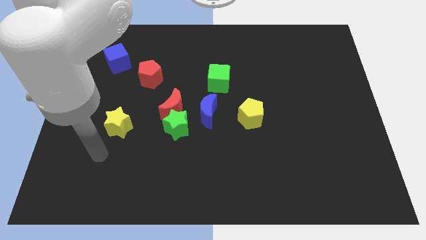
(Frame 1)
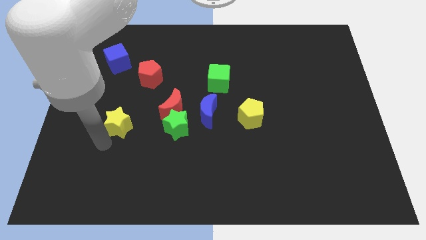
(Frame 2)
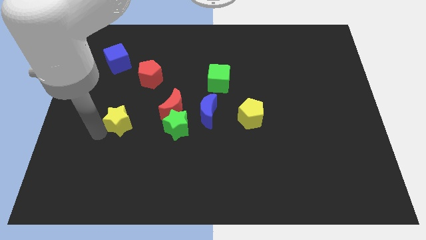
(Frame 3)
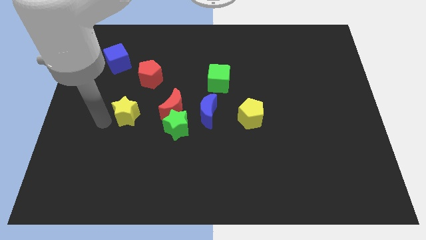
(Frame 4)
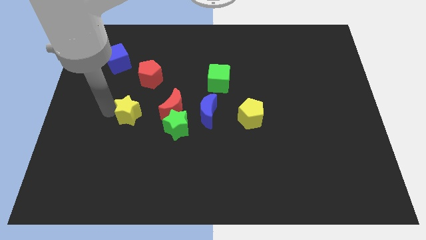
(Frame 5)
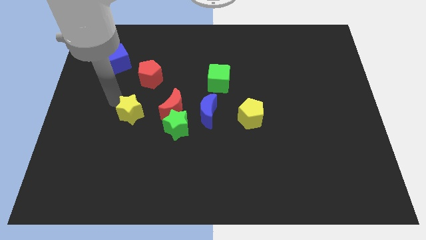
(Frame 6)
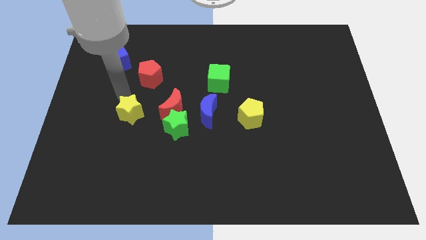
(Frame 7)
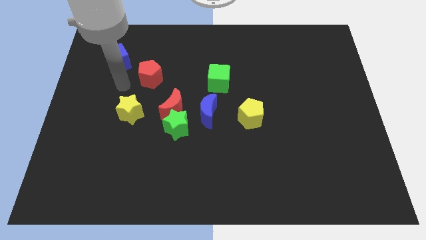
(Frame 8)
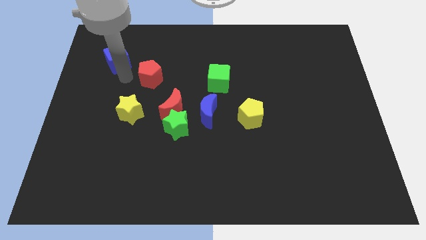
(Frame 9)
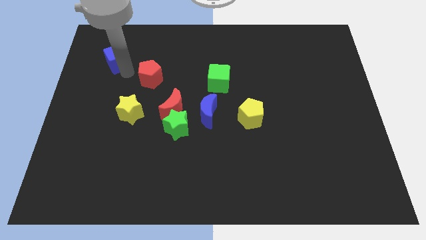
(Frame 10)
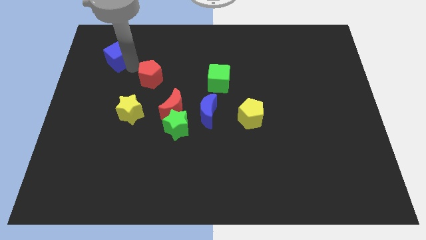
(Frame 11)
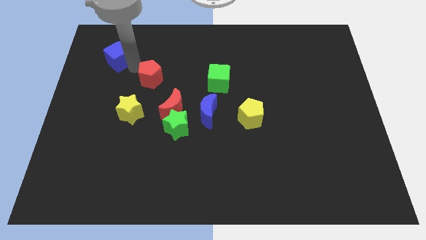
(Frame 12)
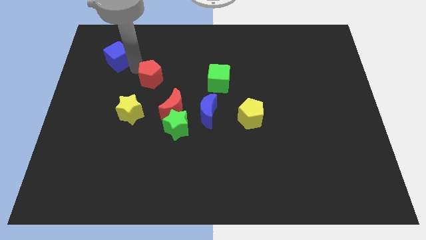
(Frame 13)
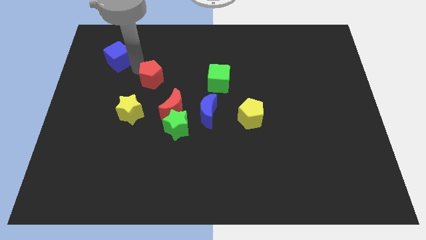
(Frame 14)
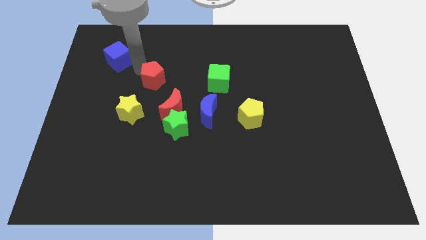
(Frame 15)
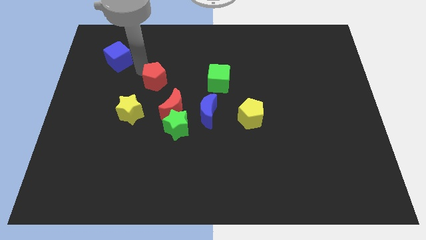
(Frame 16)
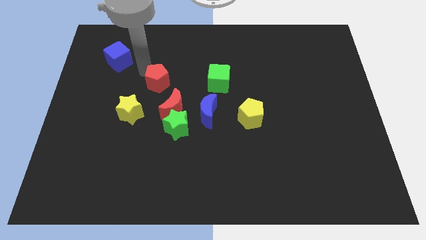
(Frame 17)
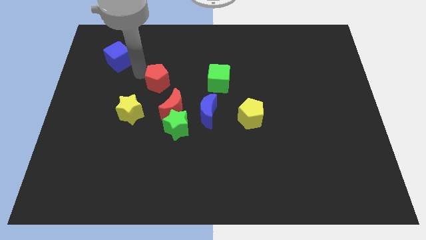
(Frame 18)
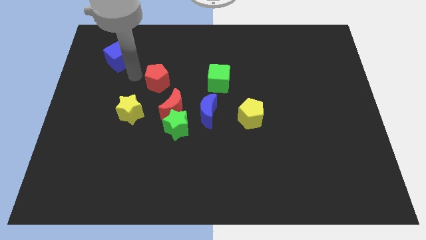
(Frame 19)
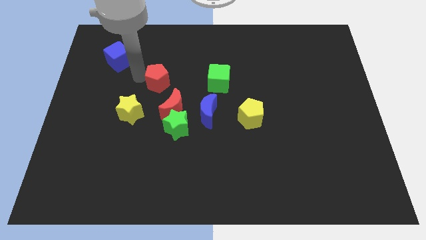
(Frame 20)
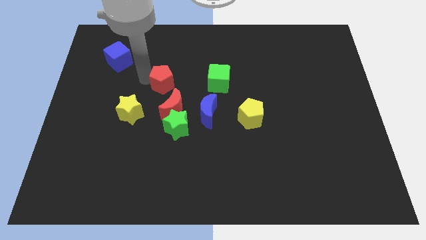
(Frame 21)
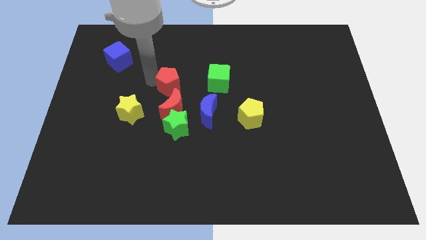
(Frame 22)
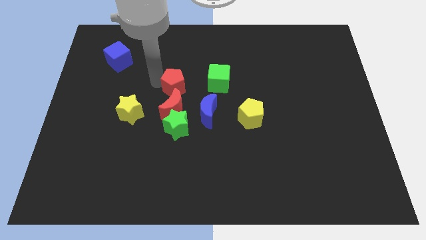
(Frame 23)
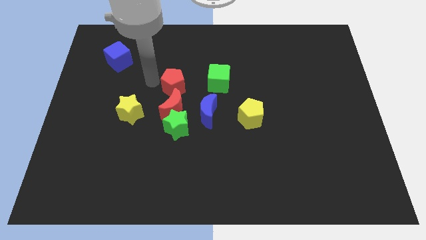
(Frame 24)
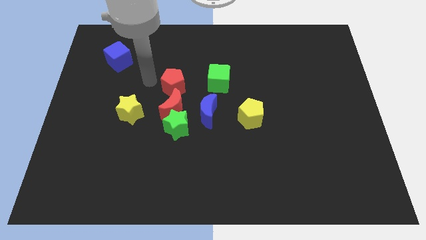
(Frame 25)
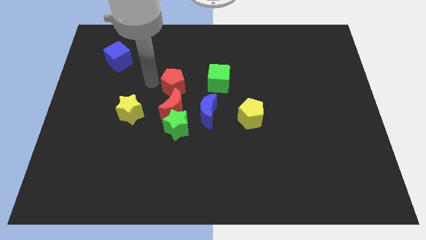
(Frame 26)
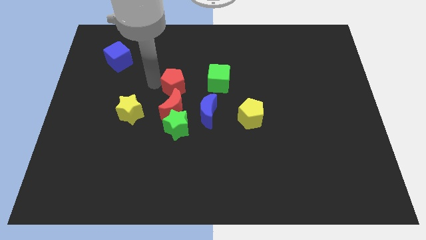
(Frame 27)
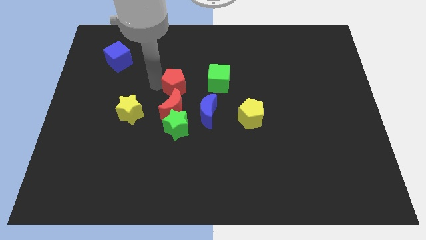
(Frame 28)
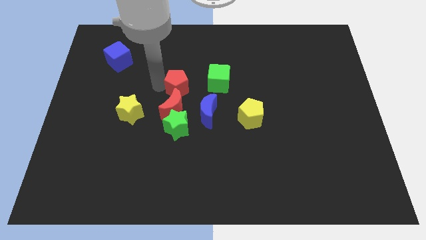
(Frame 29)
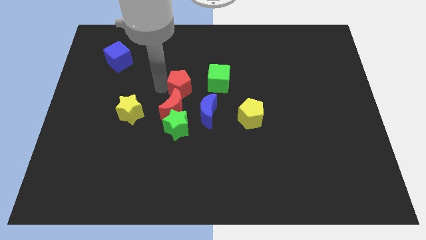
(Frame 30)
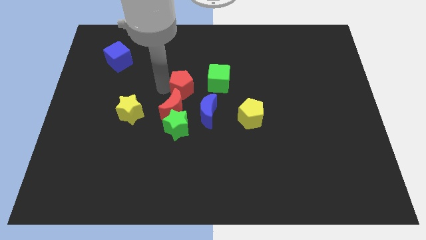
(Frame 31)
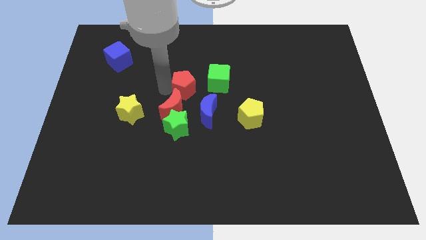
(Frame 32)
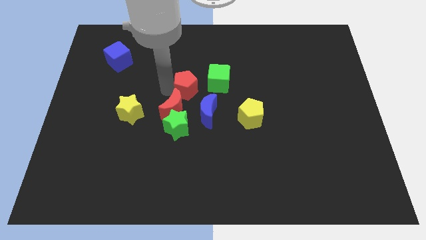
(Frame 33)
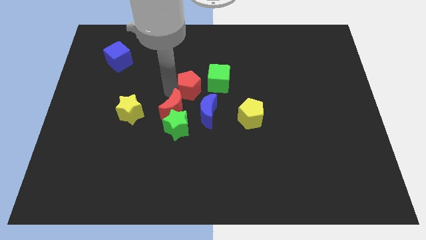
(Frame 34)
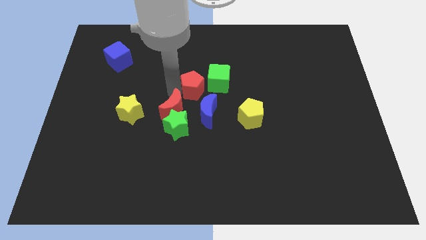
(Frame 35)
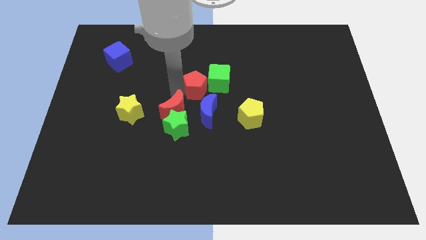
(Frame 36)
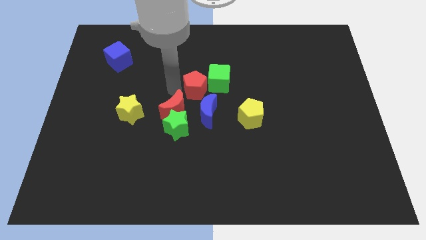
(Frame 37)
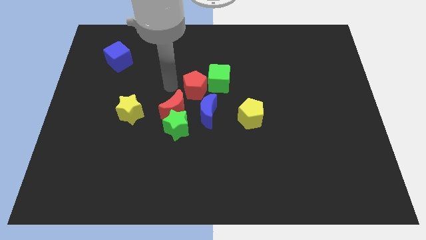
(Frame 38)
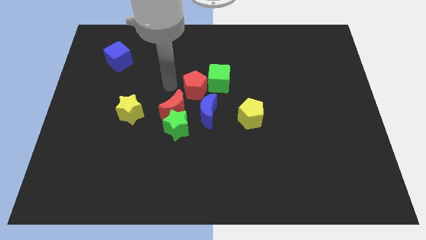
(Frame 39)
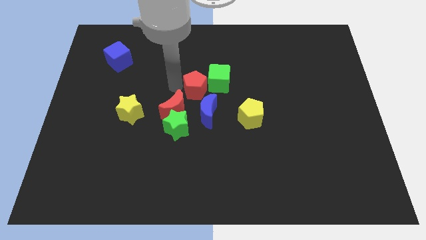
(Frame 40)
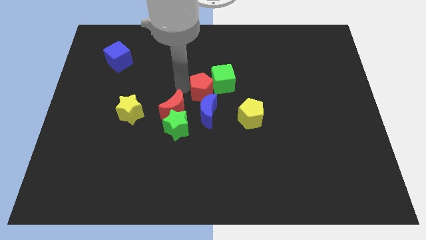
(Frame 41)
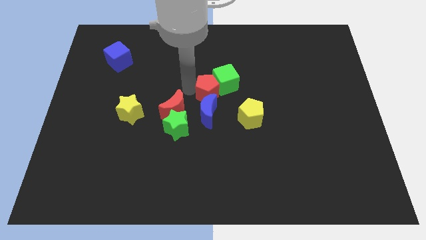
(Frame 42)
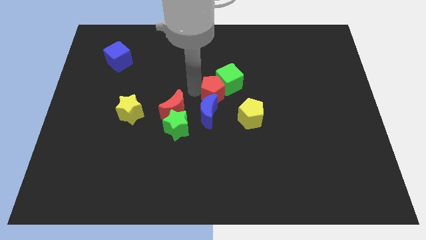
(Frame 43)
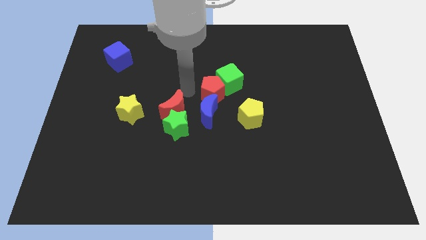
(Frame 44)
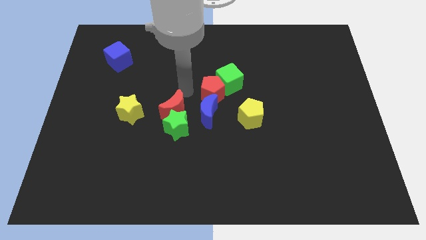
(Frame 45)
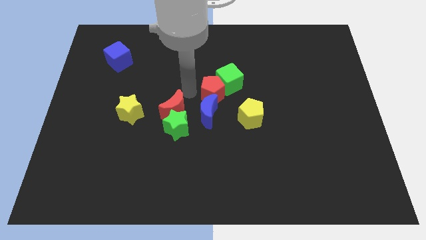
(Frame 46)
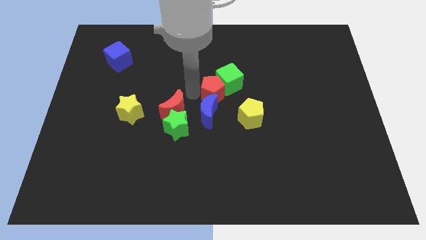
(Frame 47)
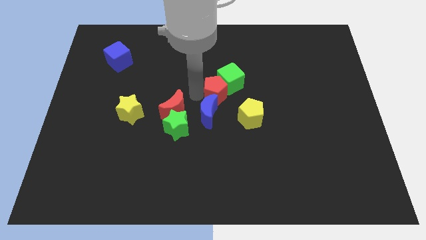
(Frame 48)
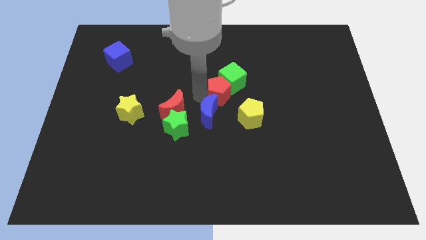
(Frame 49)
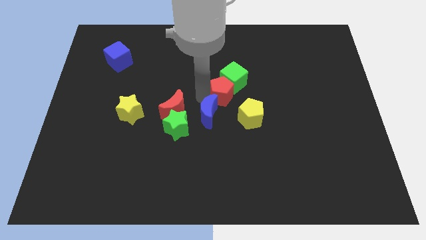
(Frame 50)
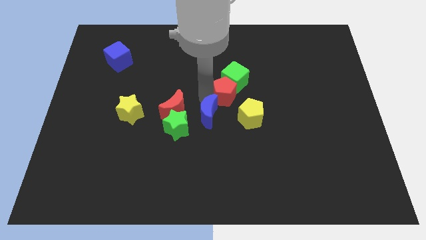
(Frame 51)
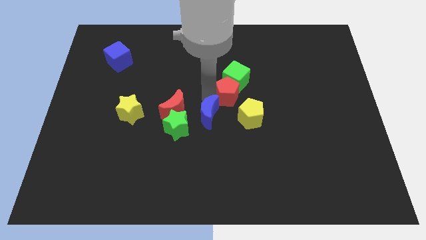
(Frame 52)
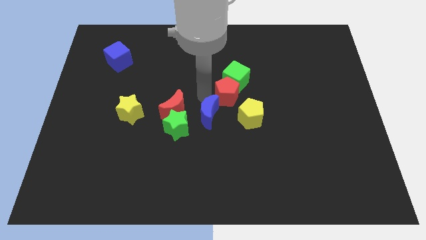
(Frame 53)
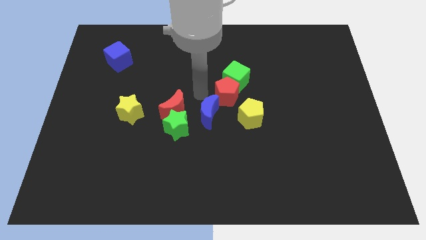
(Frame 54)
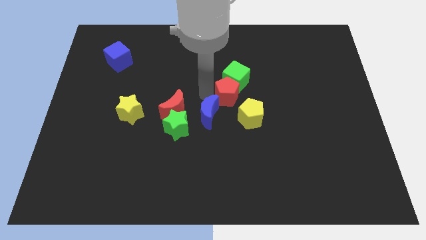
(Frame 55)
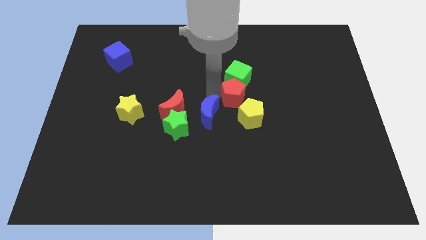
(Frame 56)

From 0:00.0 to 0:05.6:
push the red pentagon just right of the blue moon

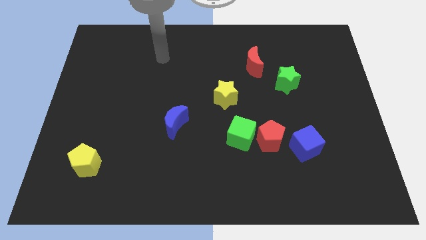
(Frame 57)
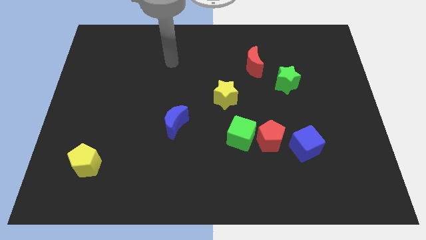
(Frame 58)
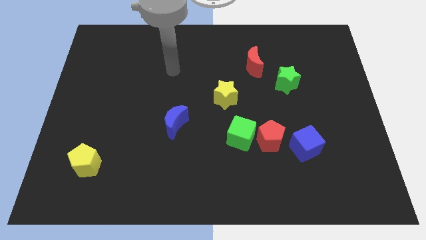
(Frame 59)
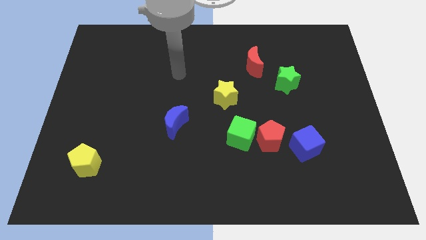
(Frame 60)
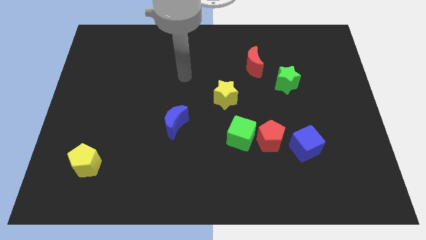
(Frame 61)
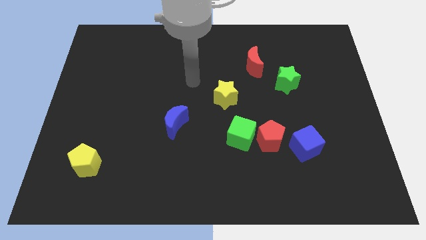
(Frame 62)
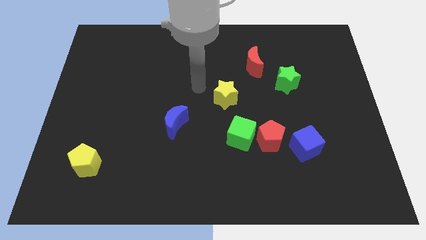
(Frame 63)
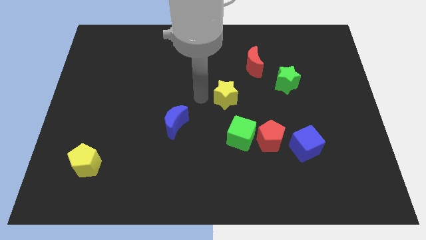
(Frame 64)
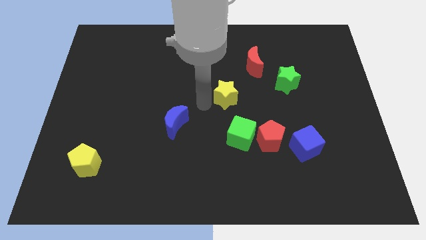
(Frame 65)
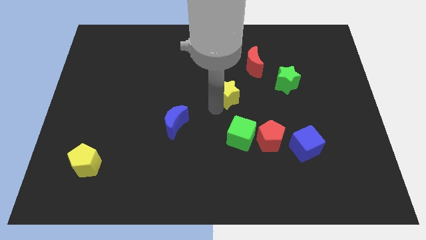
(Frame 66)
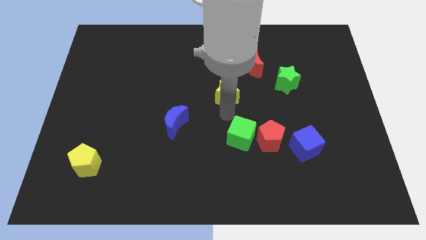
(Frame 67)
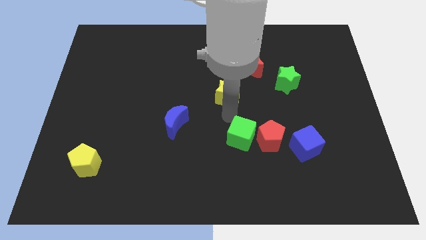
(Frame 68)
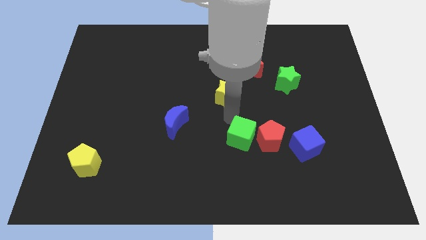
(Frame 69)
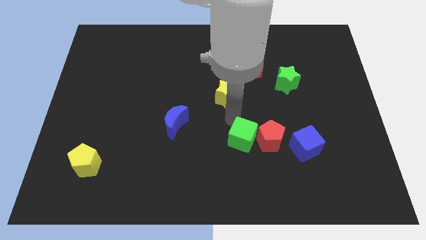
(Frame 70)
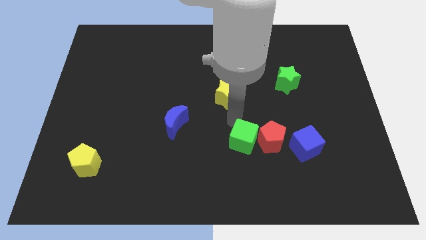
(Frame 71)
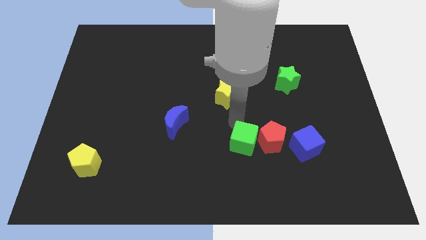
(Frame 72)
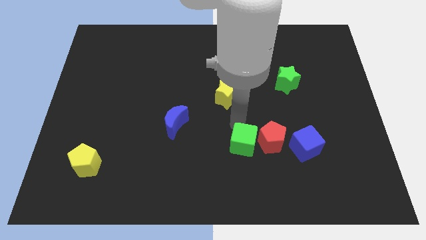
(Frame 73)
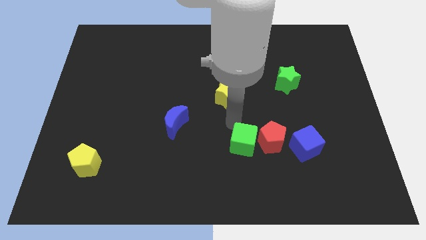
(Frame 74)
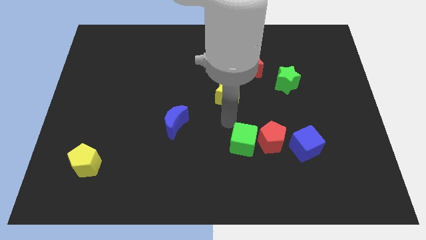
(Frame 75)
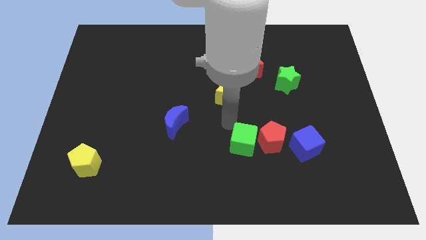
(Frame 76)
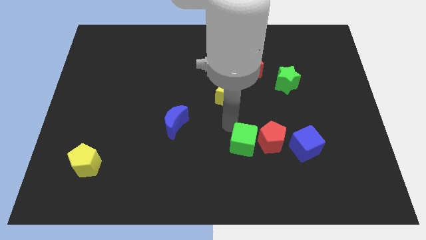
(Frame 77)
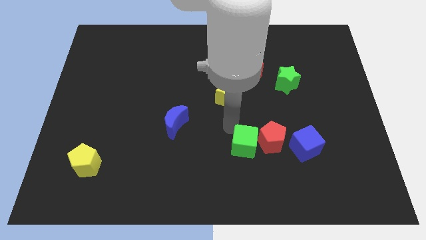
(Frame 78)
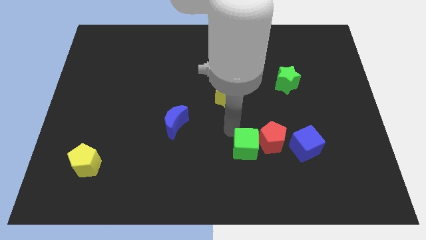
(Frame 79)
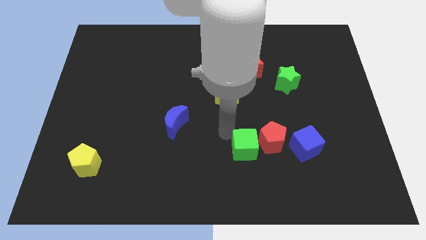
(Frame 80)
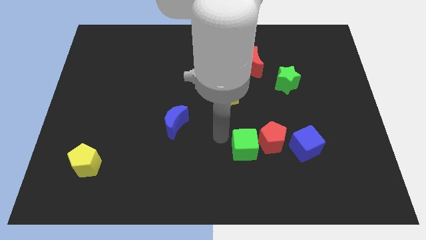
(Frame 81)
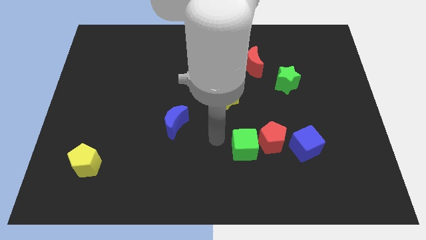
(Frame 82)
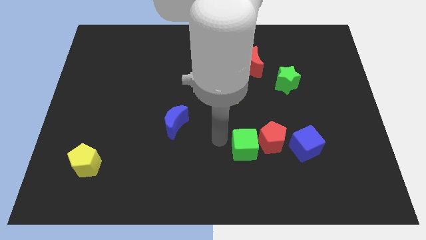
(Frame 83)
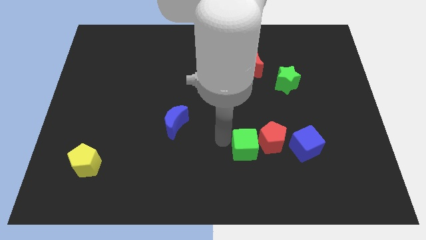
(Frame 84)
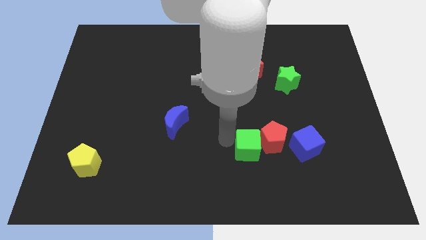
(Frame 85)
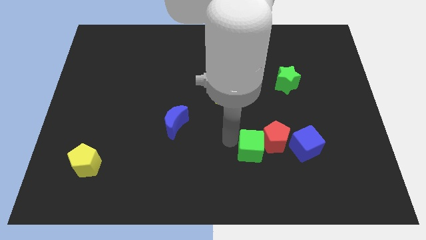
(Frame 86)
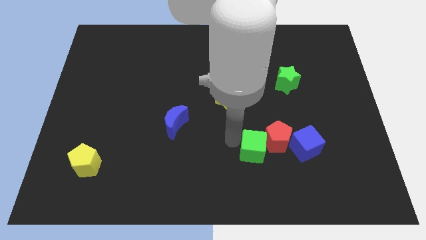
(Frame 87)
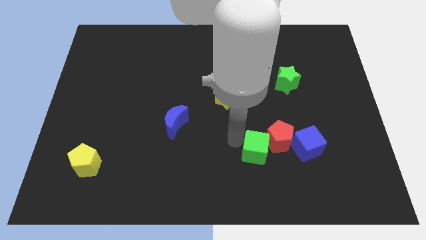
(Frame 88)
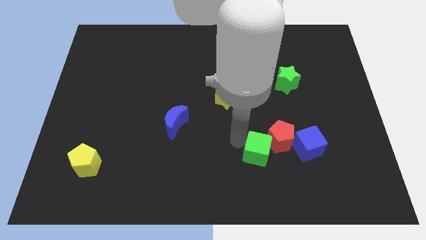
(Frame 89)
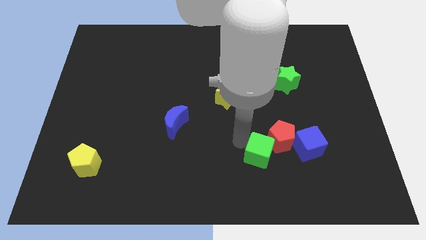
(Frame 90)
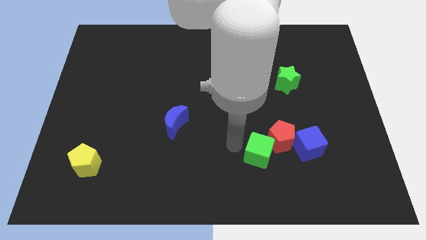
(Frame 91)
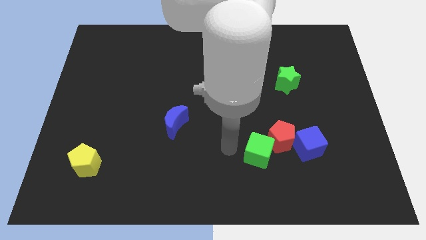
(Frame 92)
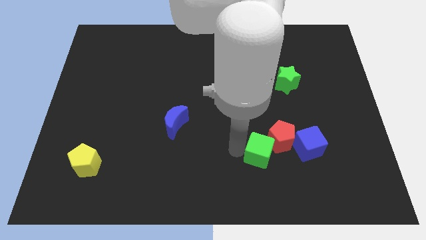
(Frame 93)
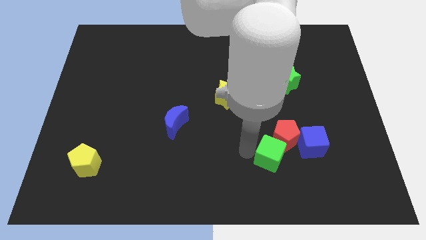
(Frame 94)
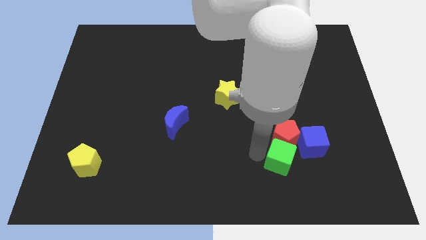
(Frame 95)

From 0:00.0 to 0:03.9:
move the green cube diagonally down and to the right of the red pentagon
